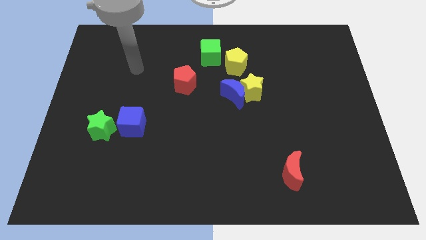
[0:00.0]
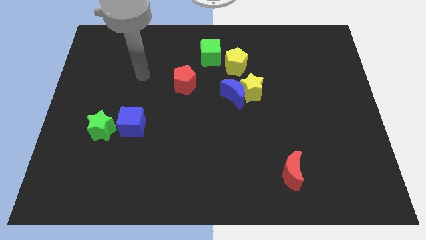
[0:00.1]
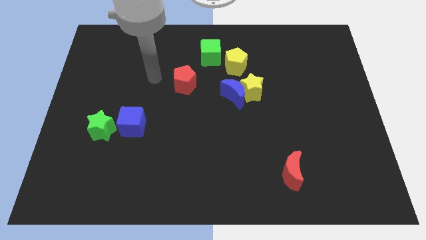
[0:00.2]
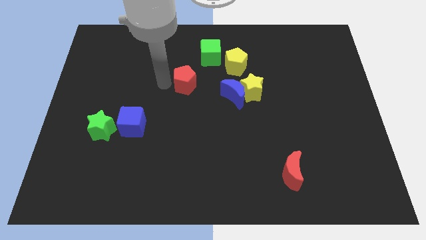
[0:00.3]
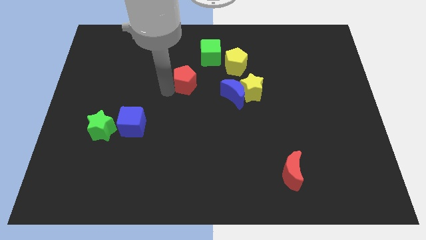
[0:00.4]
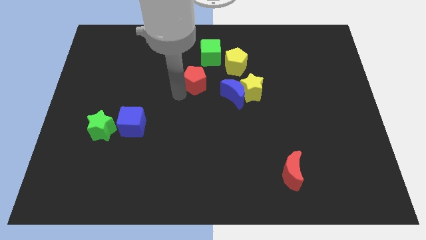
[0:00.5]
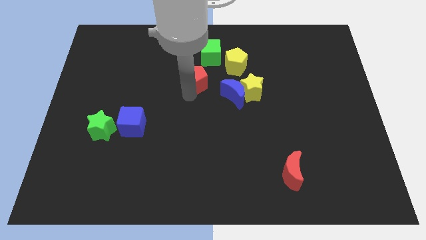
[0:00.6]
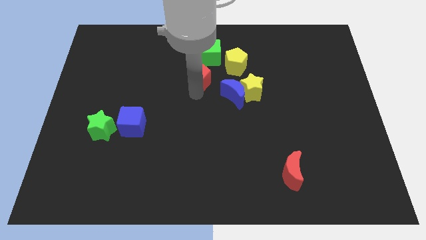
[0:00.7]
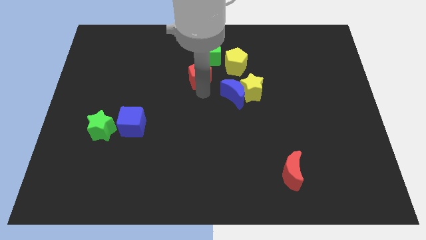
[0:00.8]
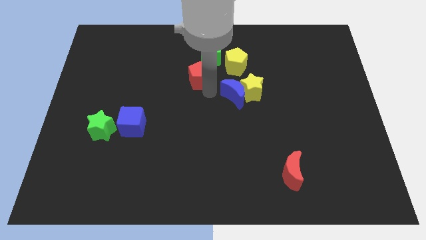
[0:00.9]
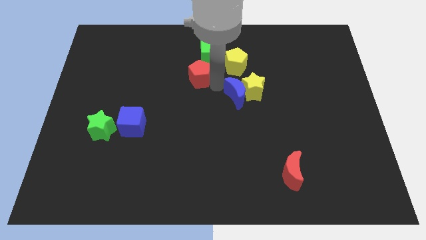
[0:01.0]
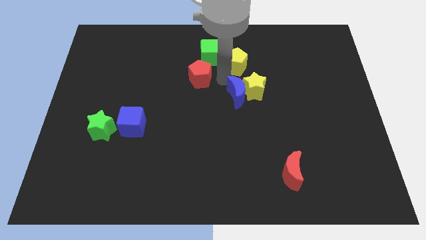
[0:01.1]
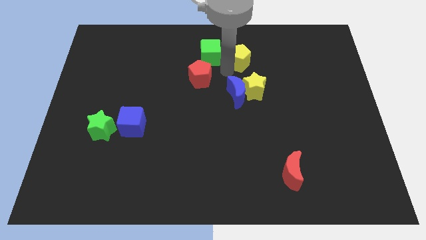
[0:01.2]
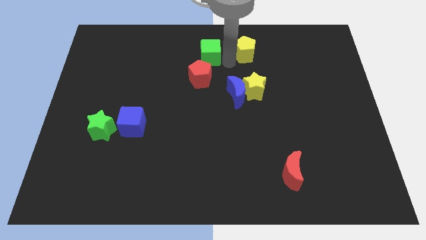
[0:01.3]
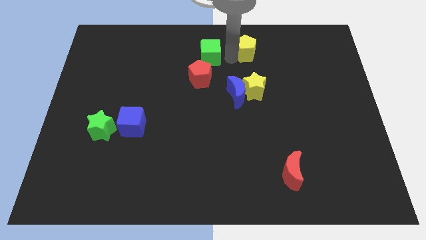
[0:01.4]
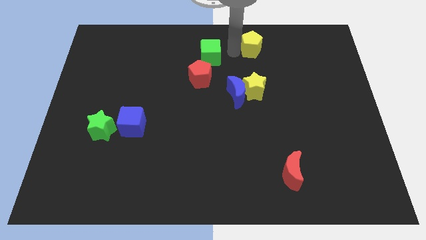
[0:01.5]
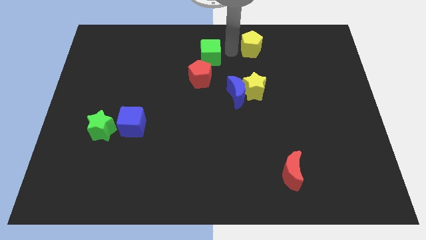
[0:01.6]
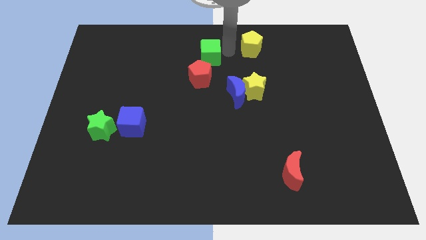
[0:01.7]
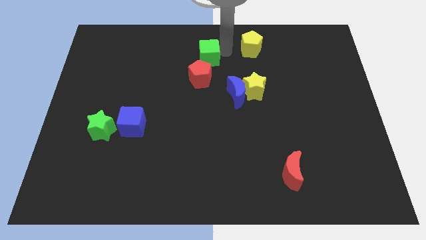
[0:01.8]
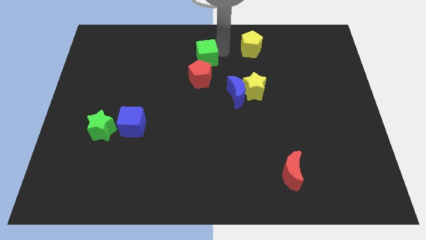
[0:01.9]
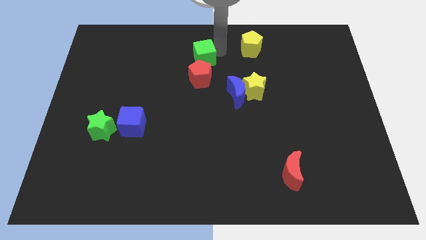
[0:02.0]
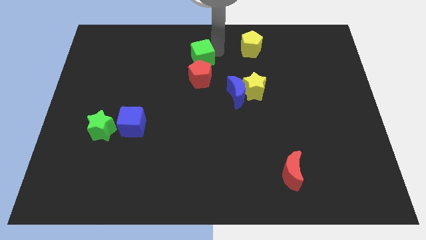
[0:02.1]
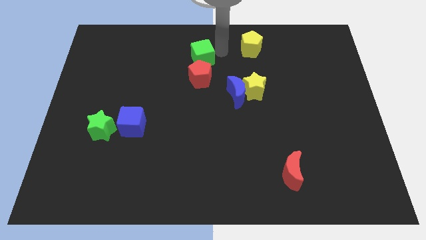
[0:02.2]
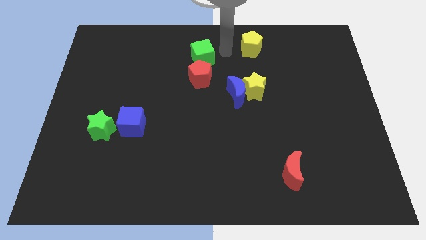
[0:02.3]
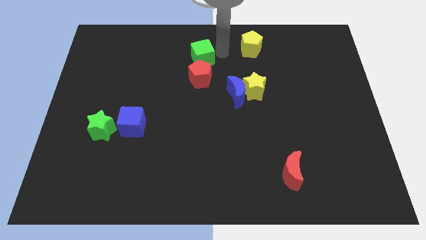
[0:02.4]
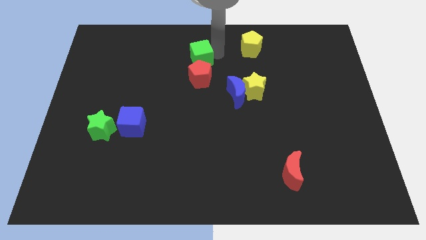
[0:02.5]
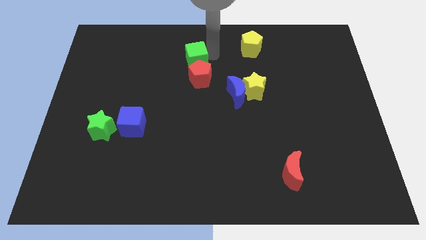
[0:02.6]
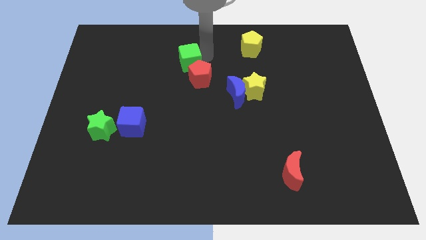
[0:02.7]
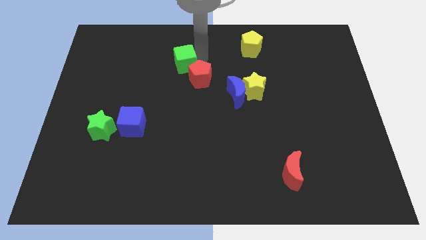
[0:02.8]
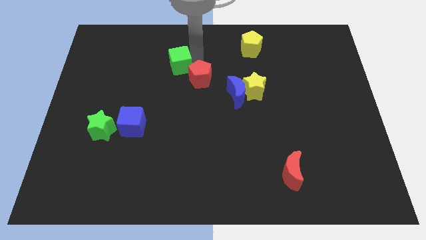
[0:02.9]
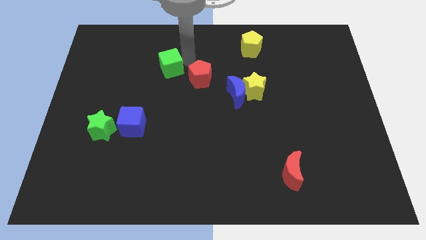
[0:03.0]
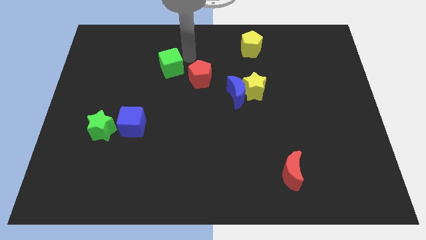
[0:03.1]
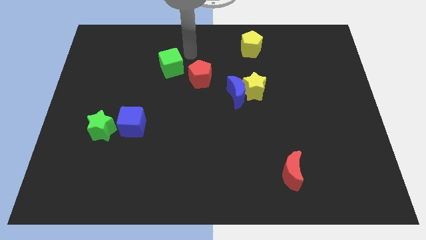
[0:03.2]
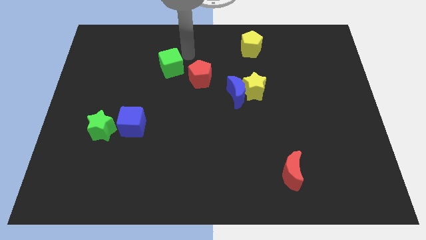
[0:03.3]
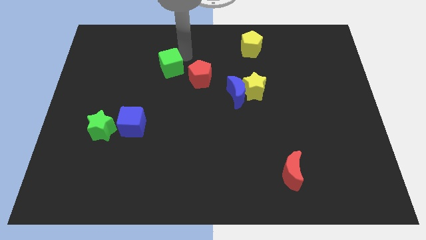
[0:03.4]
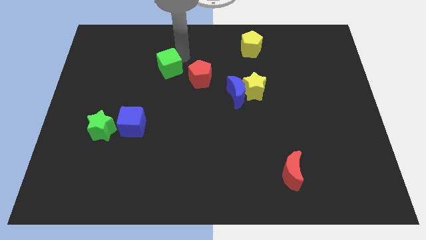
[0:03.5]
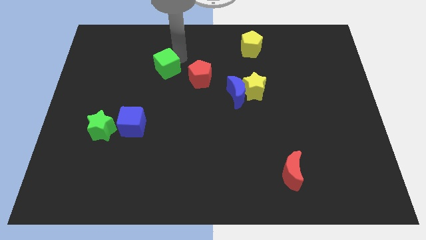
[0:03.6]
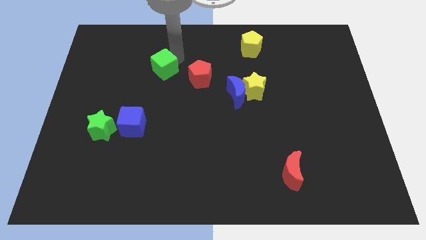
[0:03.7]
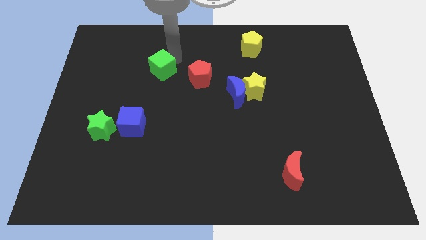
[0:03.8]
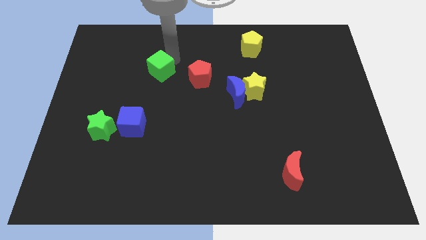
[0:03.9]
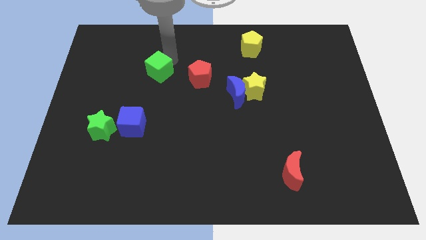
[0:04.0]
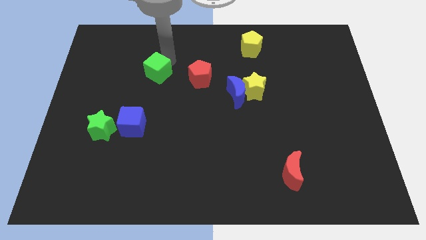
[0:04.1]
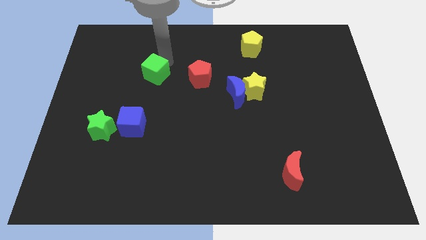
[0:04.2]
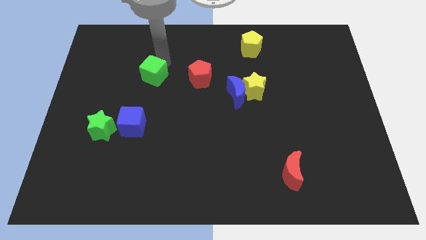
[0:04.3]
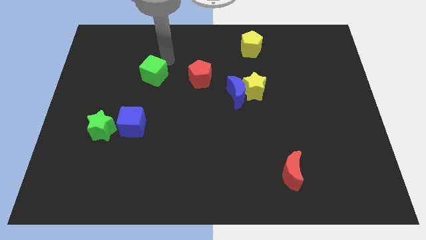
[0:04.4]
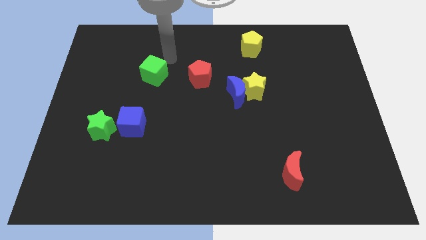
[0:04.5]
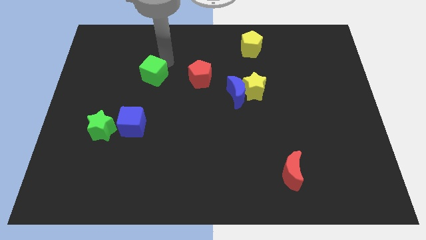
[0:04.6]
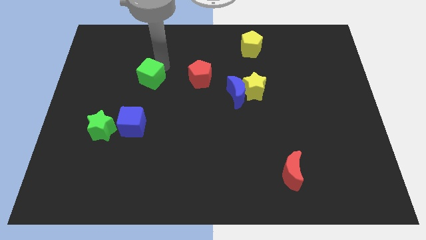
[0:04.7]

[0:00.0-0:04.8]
put the green cube to the top of the blue cube

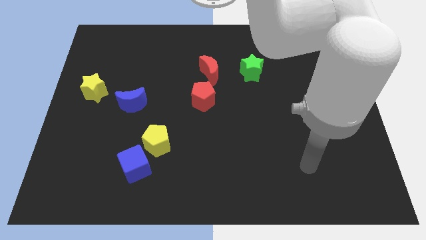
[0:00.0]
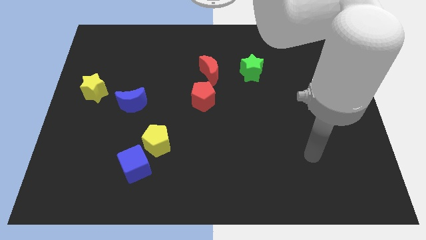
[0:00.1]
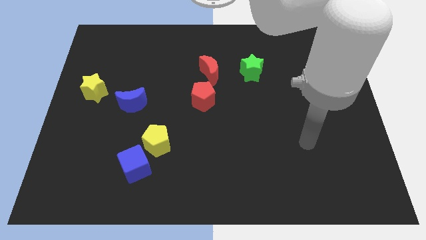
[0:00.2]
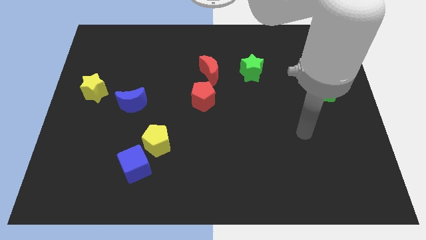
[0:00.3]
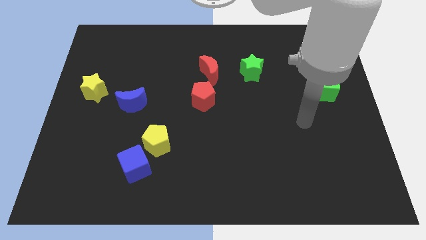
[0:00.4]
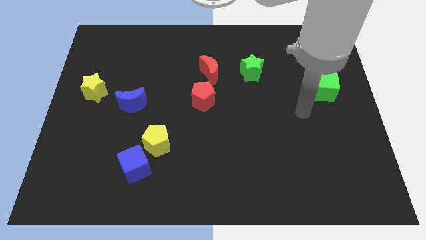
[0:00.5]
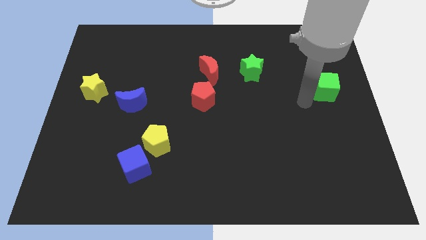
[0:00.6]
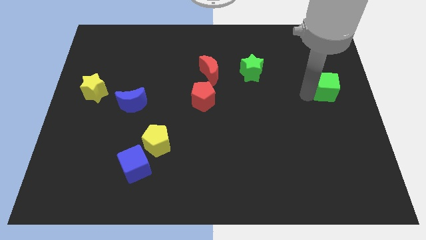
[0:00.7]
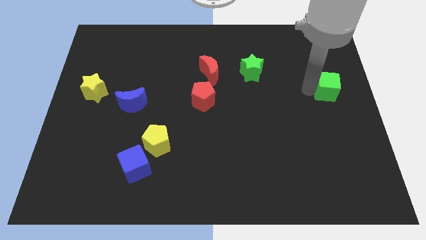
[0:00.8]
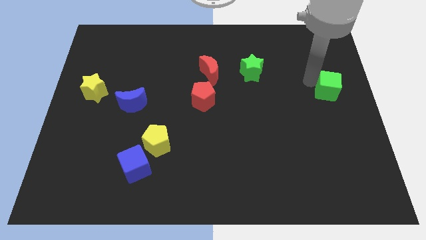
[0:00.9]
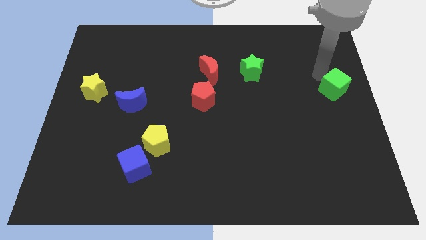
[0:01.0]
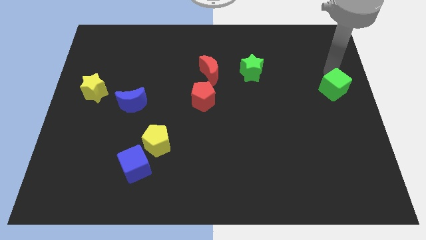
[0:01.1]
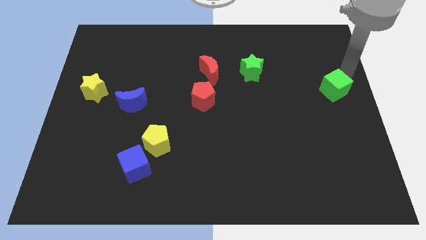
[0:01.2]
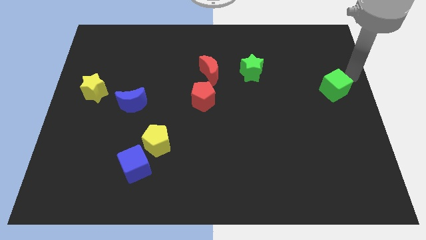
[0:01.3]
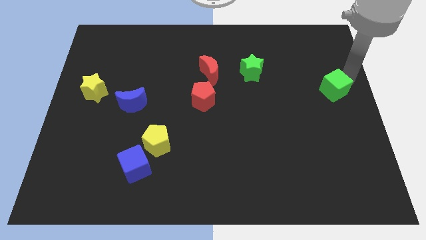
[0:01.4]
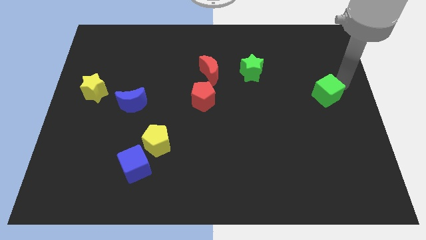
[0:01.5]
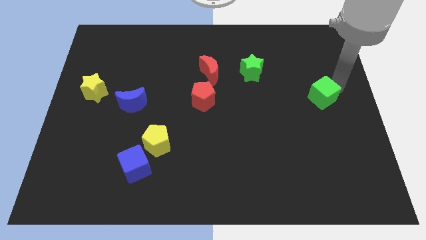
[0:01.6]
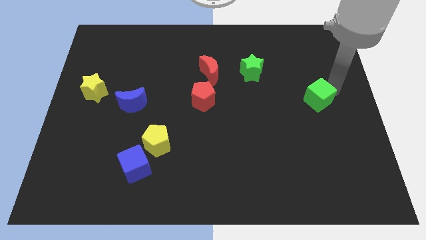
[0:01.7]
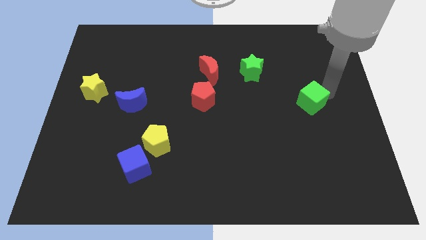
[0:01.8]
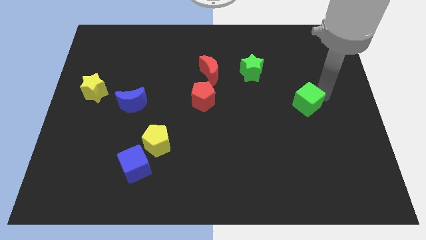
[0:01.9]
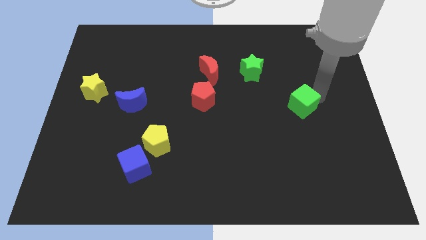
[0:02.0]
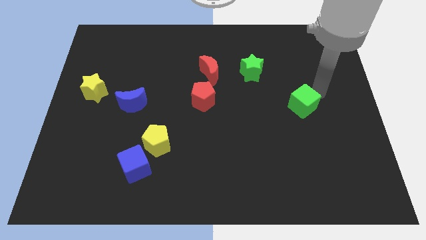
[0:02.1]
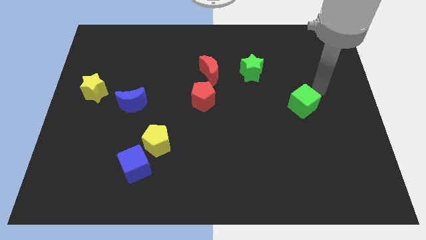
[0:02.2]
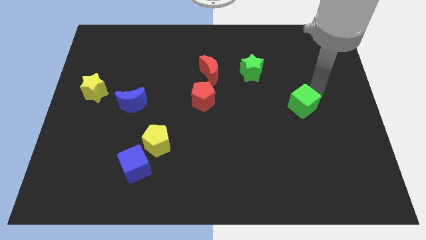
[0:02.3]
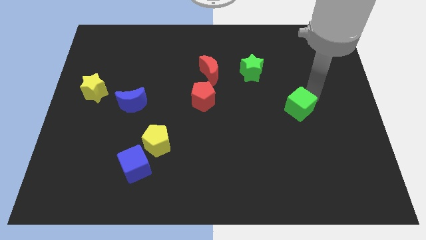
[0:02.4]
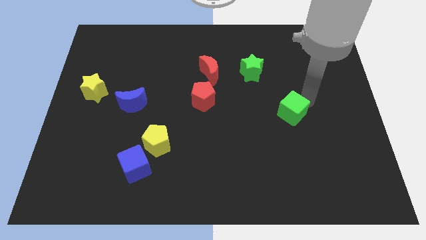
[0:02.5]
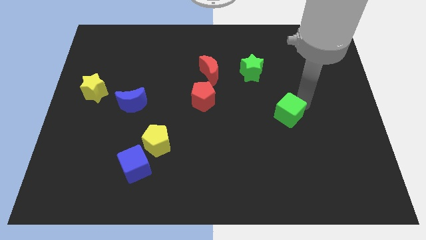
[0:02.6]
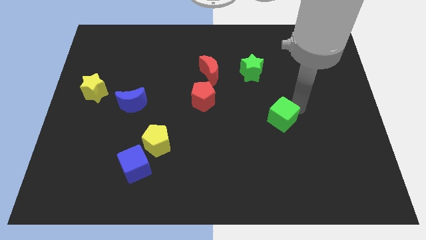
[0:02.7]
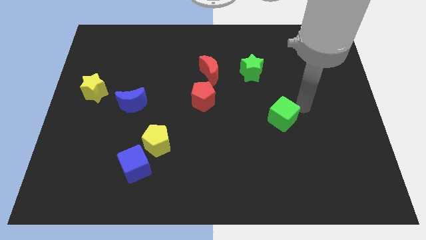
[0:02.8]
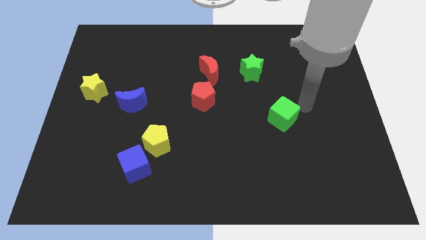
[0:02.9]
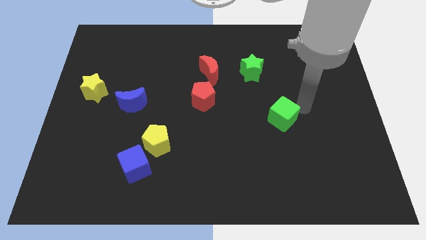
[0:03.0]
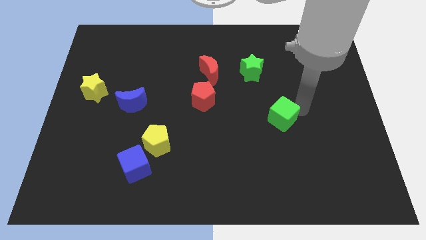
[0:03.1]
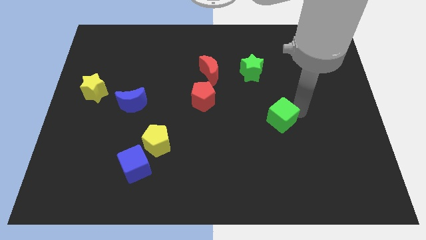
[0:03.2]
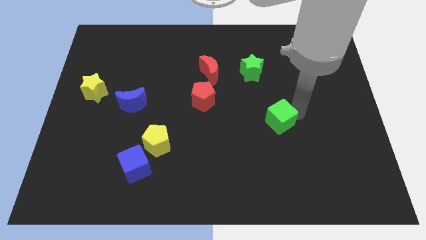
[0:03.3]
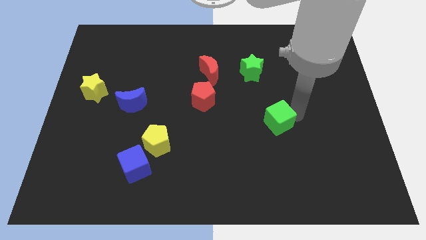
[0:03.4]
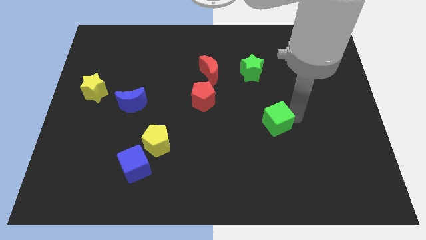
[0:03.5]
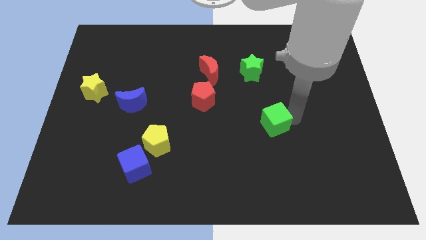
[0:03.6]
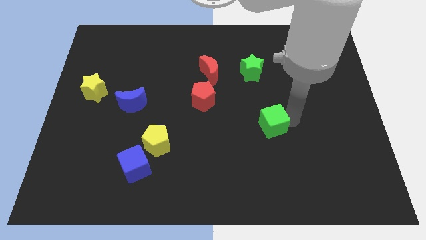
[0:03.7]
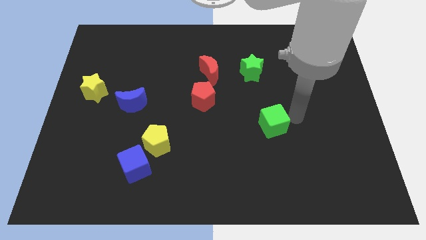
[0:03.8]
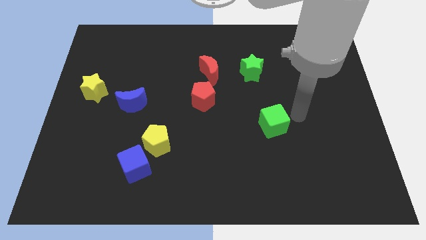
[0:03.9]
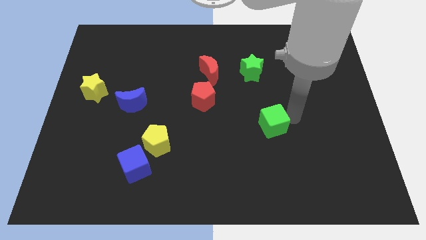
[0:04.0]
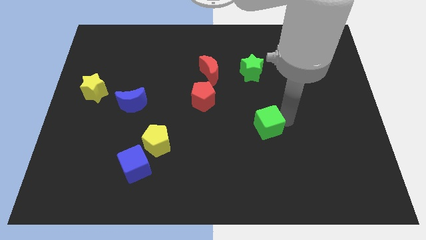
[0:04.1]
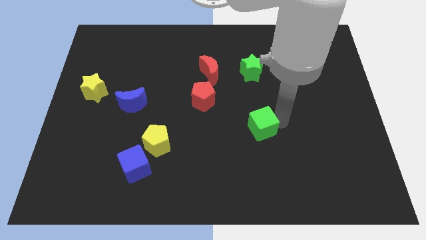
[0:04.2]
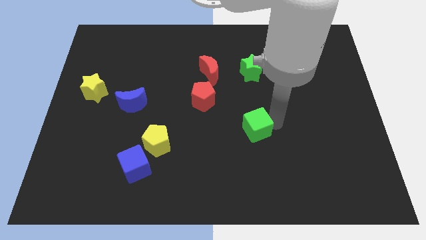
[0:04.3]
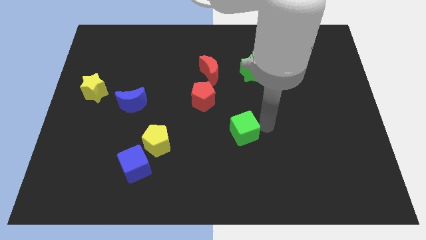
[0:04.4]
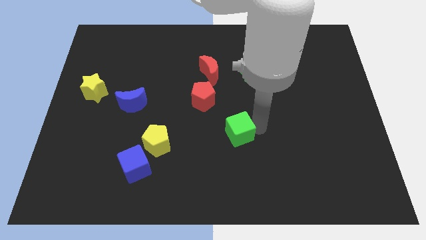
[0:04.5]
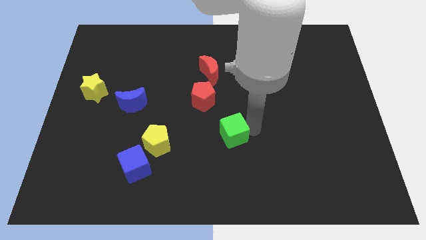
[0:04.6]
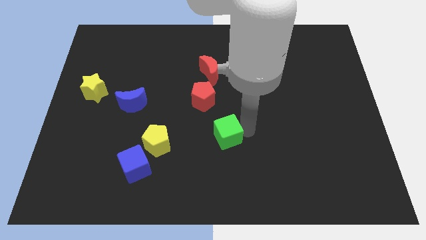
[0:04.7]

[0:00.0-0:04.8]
move the green cube right of the yellow pentagon
